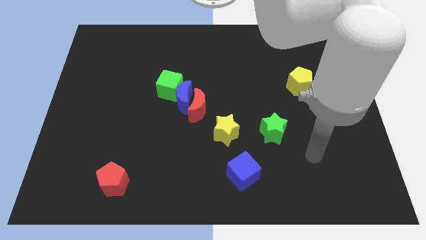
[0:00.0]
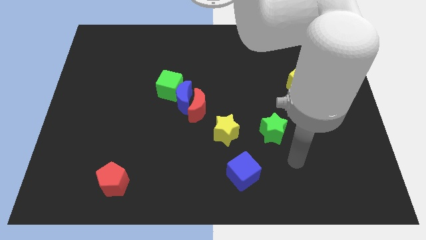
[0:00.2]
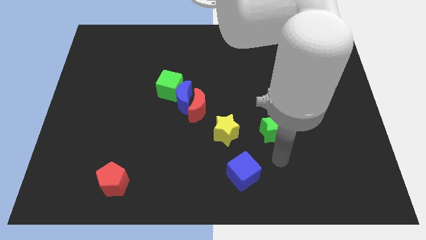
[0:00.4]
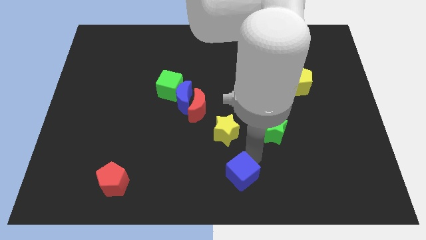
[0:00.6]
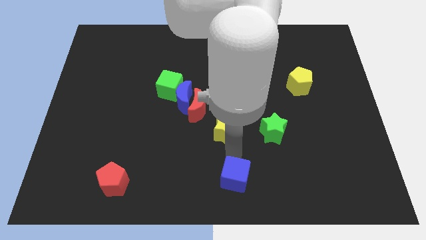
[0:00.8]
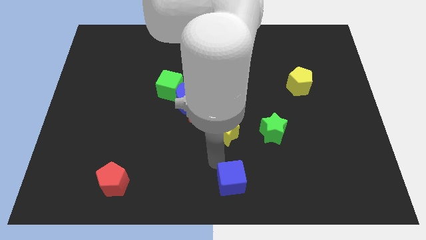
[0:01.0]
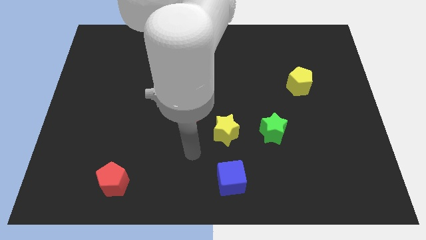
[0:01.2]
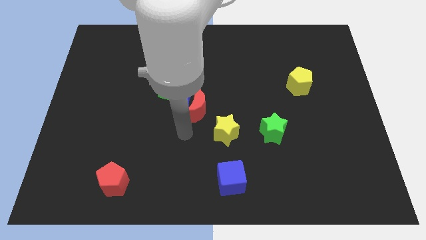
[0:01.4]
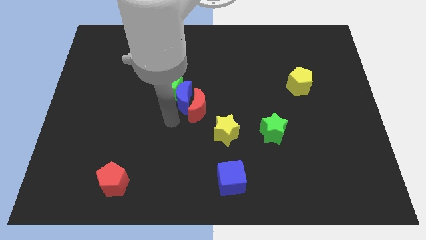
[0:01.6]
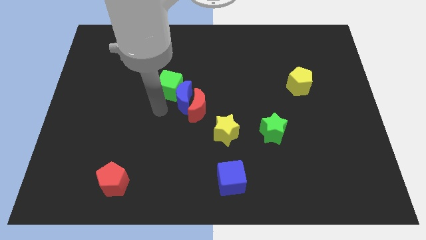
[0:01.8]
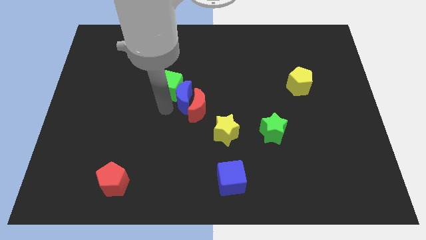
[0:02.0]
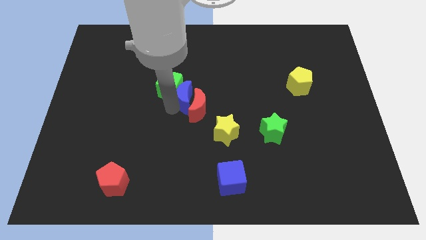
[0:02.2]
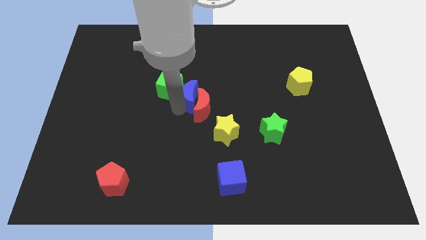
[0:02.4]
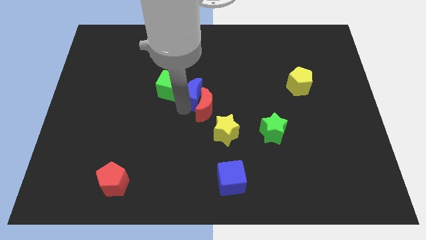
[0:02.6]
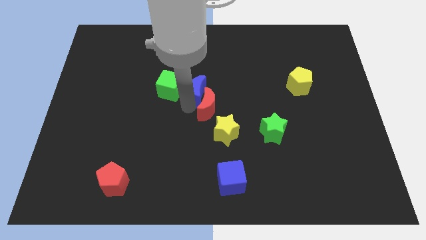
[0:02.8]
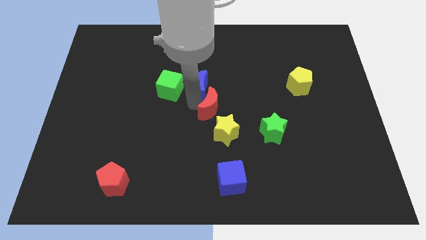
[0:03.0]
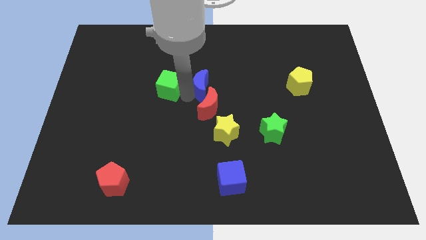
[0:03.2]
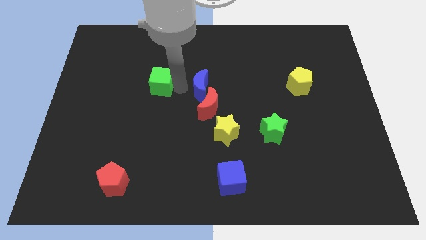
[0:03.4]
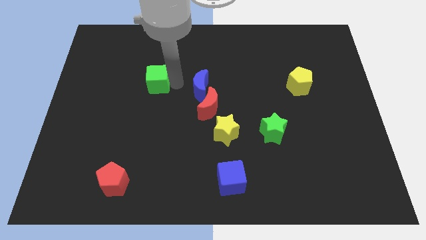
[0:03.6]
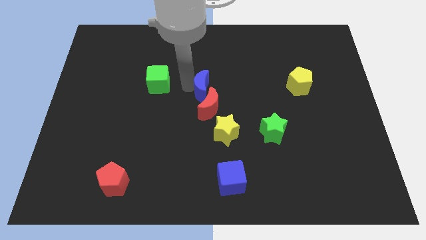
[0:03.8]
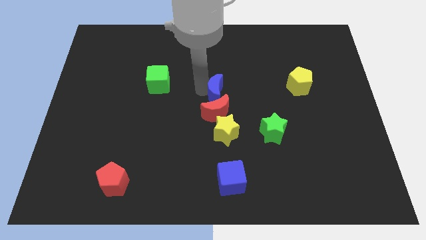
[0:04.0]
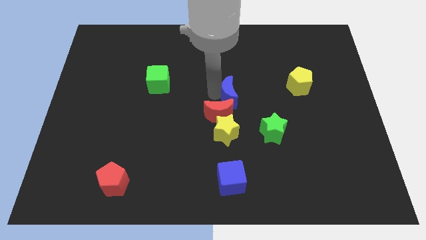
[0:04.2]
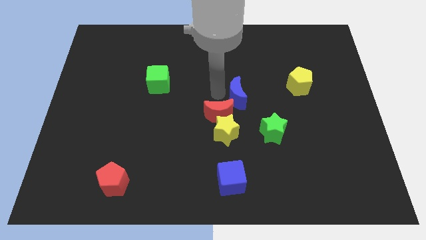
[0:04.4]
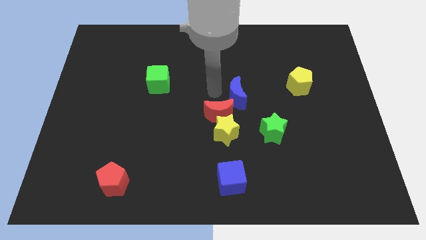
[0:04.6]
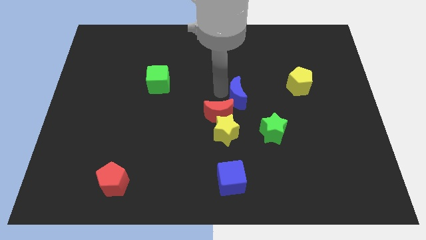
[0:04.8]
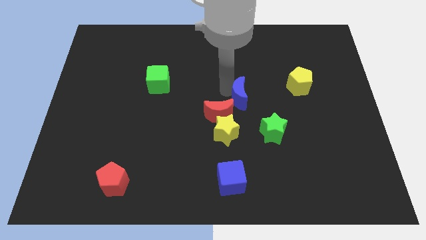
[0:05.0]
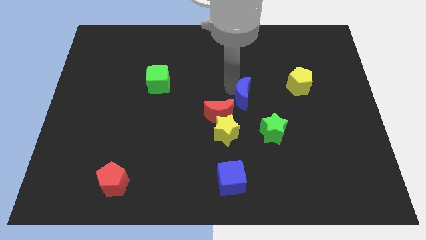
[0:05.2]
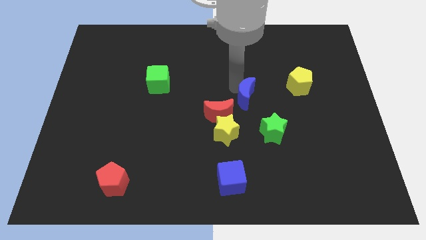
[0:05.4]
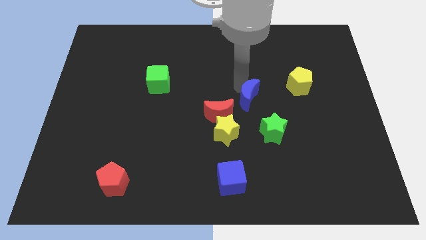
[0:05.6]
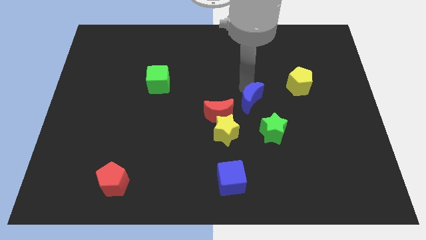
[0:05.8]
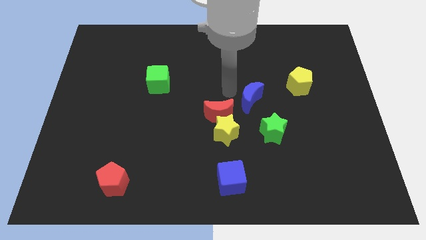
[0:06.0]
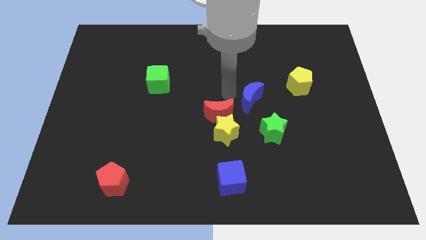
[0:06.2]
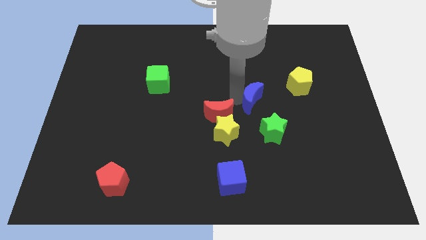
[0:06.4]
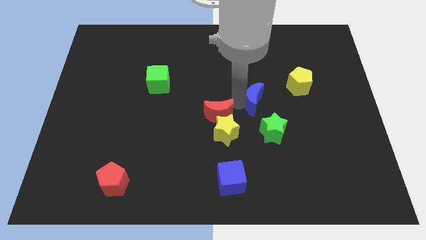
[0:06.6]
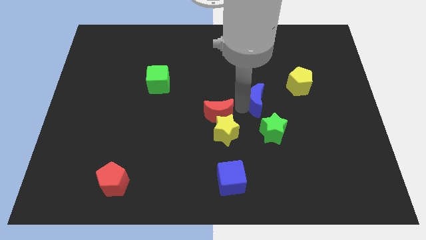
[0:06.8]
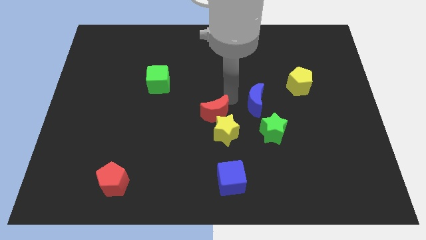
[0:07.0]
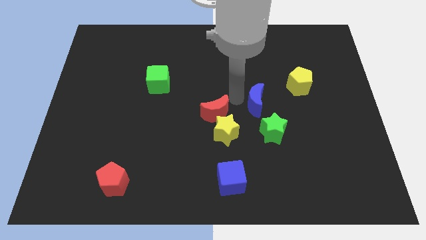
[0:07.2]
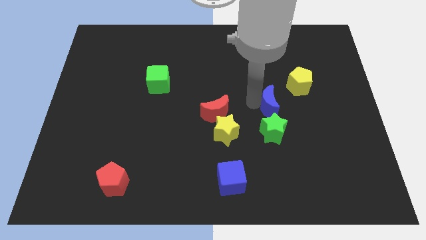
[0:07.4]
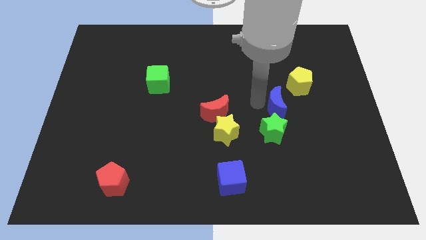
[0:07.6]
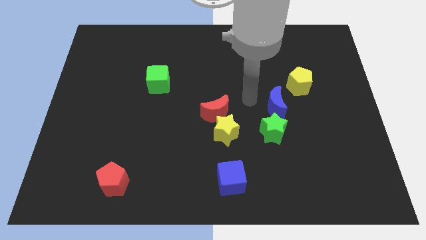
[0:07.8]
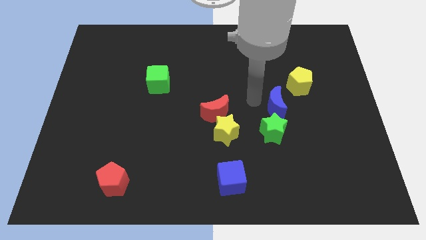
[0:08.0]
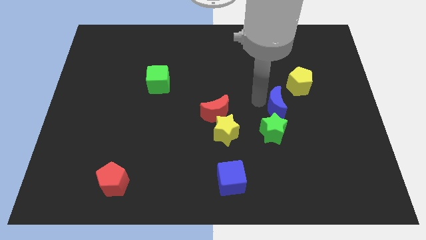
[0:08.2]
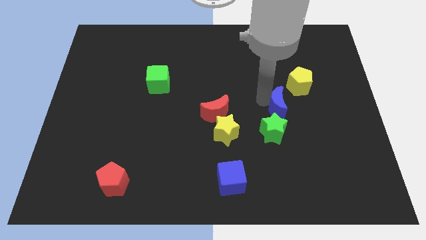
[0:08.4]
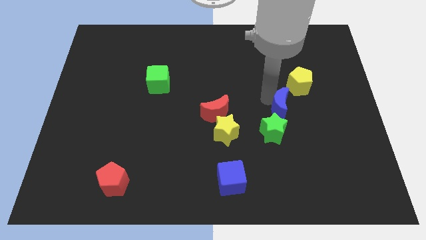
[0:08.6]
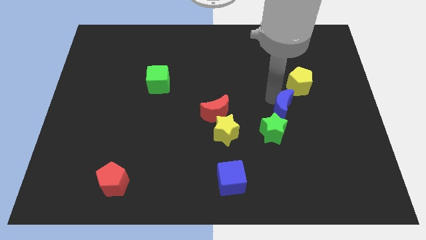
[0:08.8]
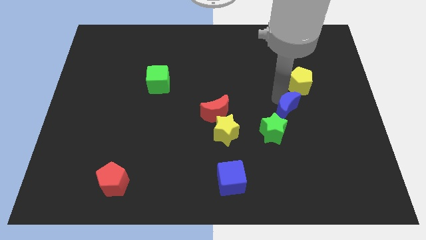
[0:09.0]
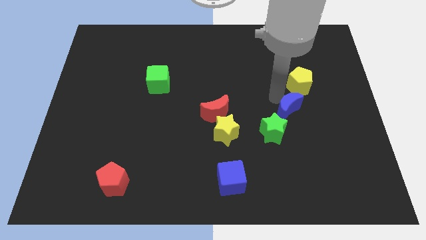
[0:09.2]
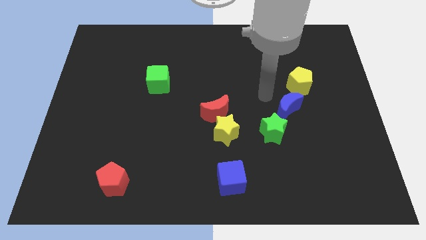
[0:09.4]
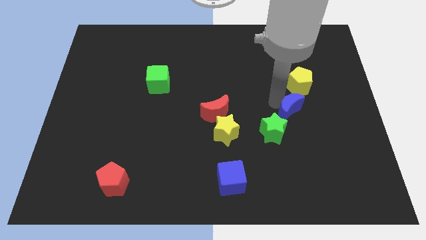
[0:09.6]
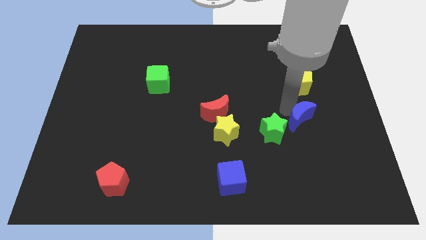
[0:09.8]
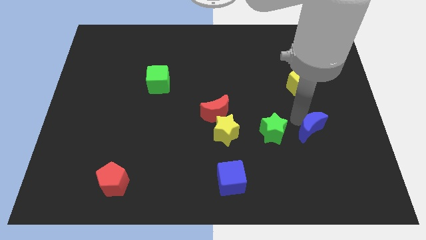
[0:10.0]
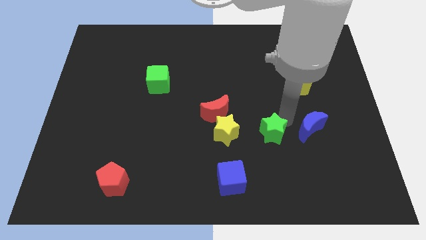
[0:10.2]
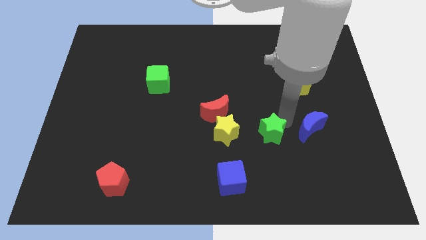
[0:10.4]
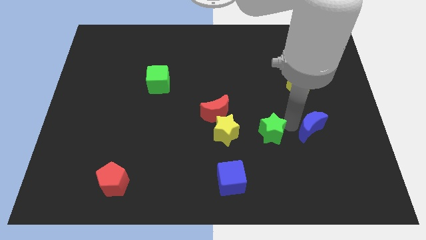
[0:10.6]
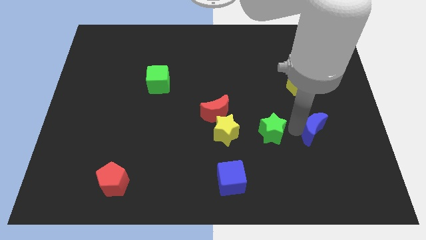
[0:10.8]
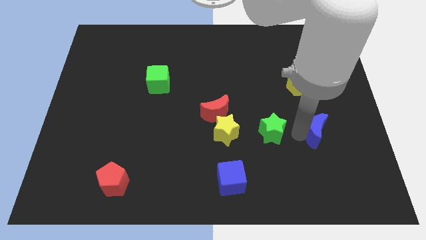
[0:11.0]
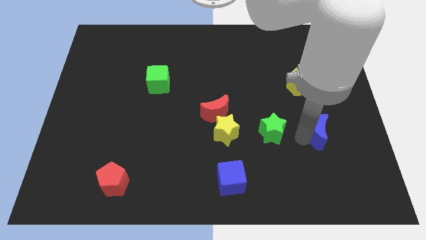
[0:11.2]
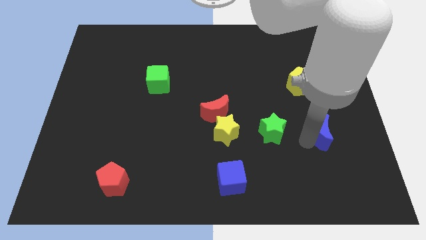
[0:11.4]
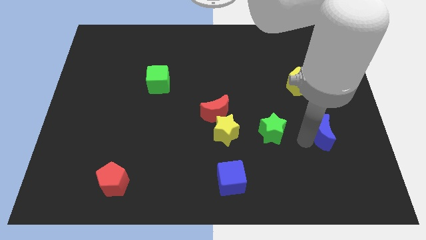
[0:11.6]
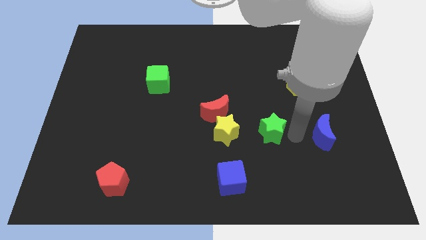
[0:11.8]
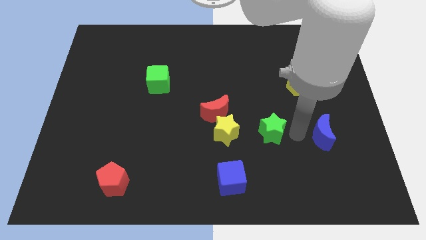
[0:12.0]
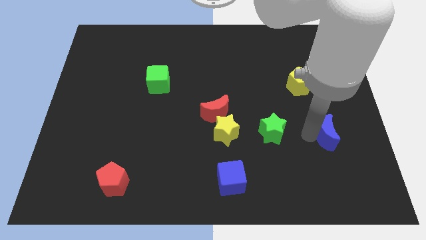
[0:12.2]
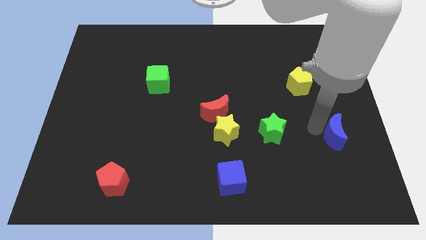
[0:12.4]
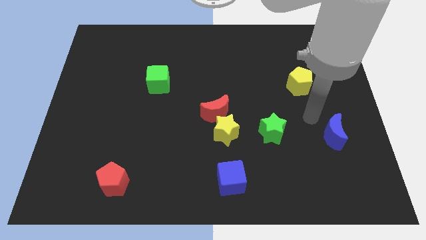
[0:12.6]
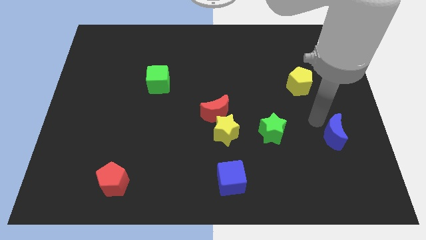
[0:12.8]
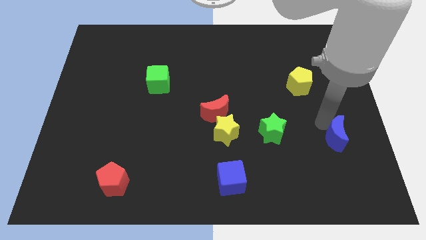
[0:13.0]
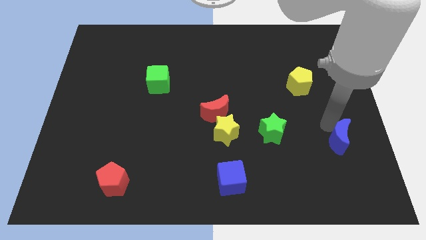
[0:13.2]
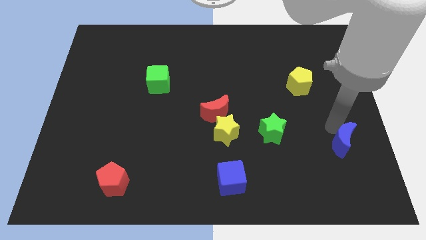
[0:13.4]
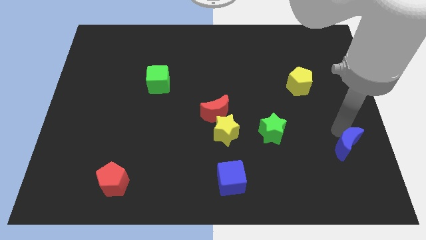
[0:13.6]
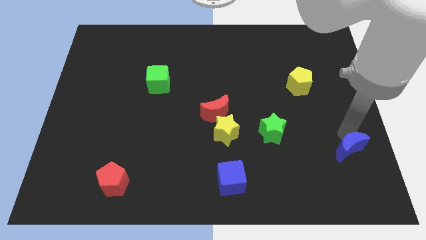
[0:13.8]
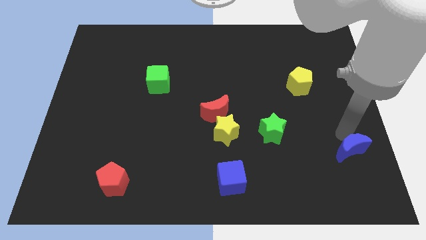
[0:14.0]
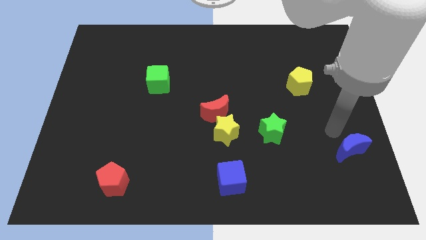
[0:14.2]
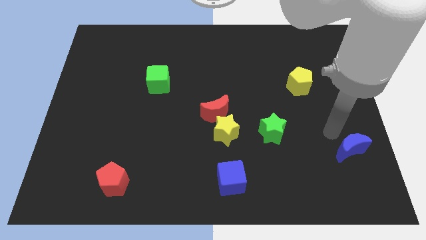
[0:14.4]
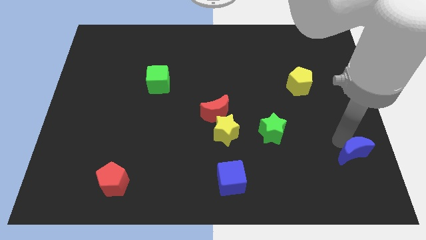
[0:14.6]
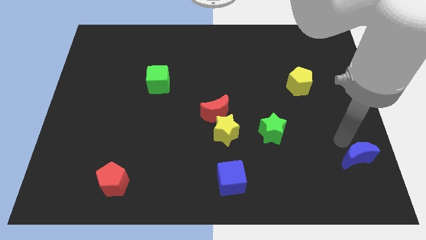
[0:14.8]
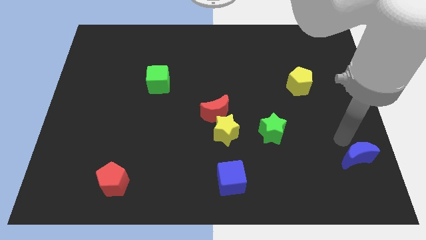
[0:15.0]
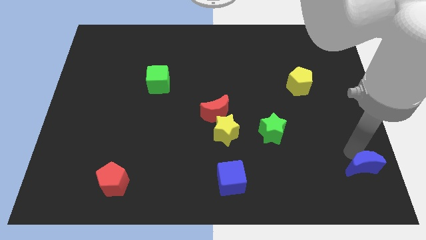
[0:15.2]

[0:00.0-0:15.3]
push the blue moon to the lower right corner
